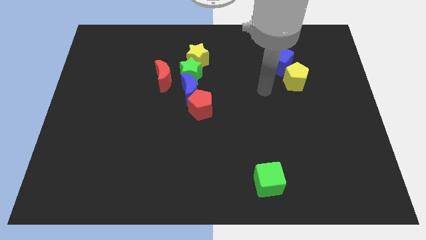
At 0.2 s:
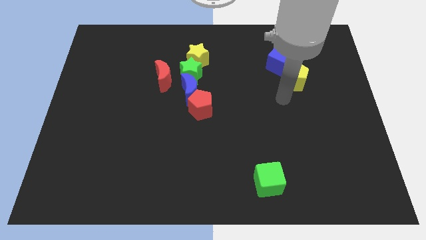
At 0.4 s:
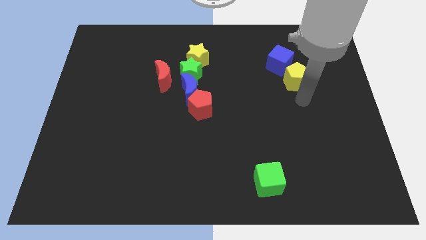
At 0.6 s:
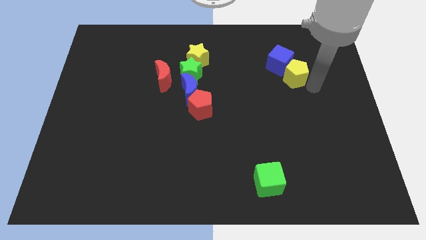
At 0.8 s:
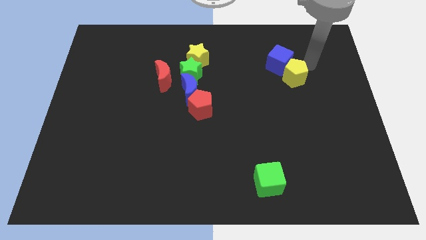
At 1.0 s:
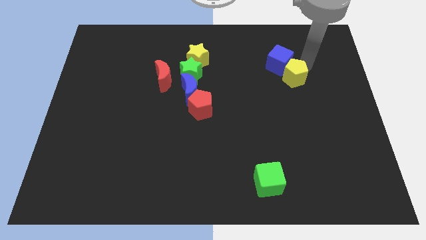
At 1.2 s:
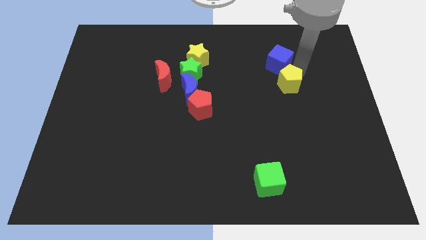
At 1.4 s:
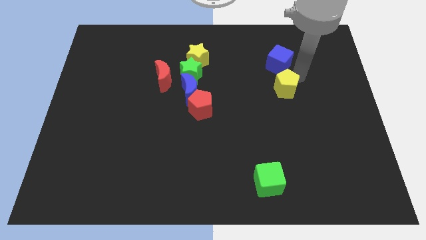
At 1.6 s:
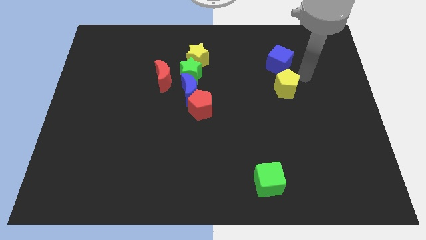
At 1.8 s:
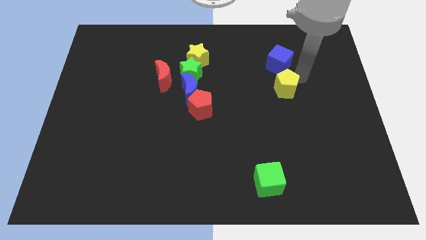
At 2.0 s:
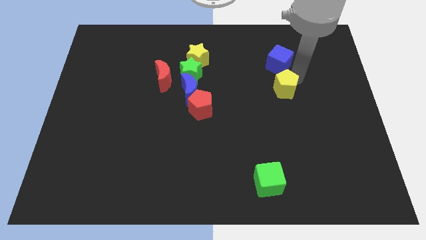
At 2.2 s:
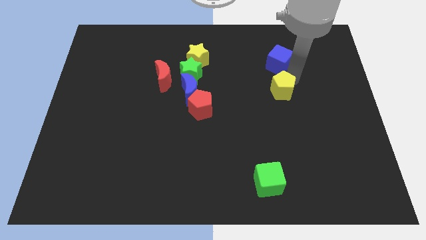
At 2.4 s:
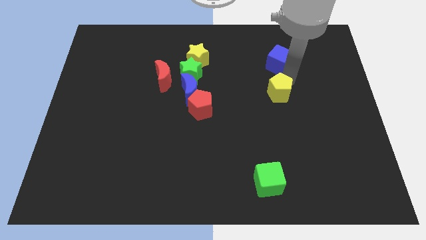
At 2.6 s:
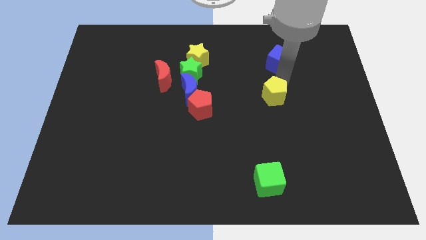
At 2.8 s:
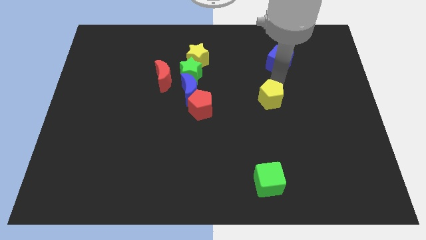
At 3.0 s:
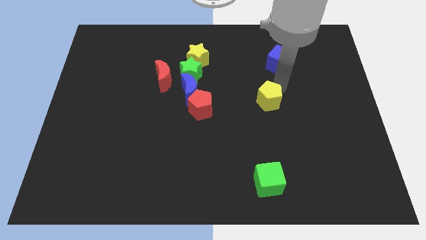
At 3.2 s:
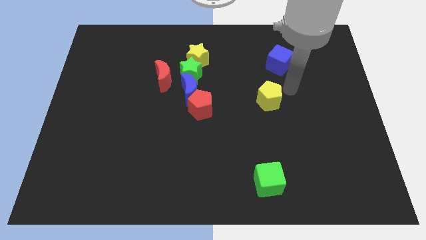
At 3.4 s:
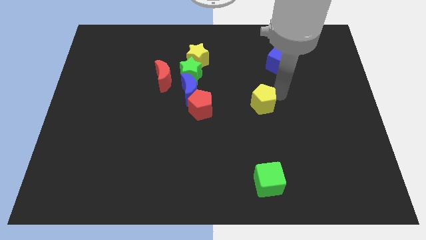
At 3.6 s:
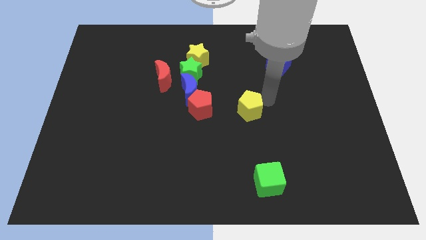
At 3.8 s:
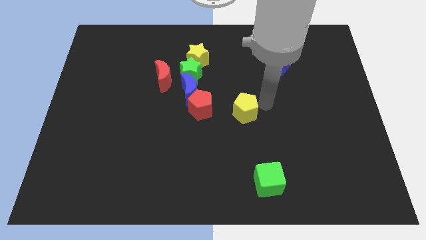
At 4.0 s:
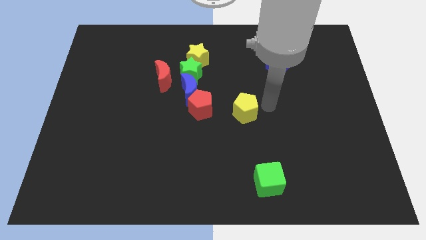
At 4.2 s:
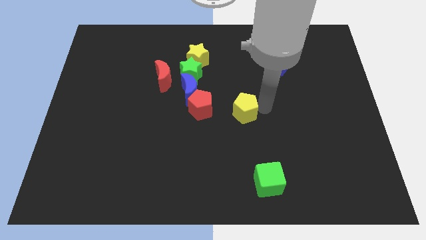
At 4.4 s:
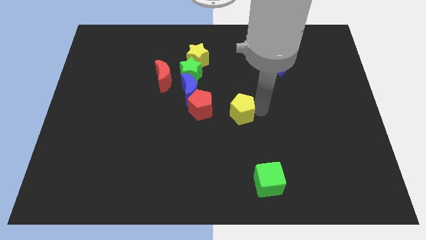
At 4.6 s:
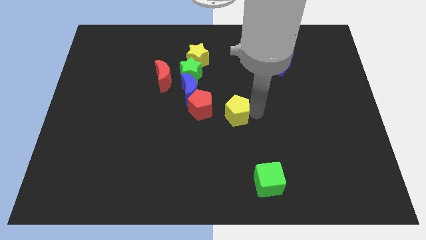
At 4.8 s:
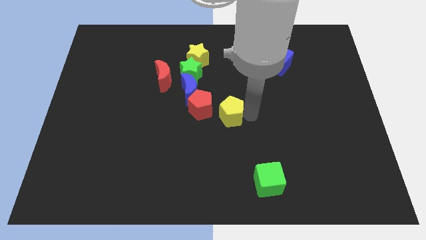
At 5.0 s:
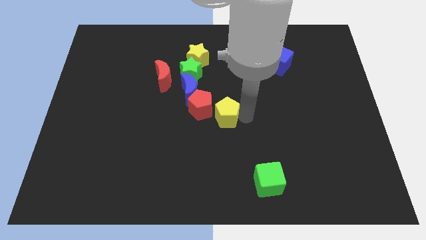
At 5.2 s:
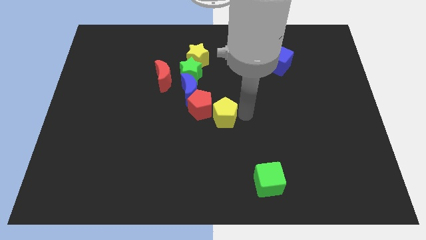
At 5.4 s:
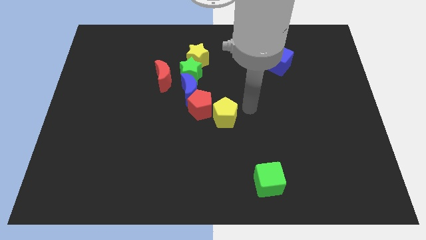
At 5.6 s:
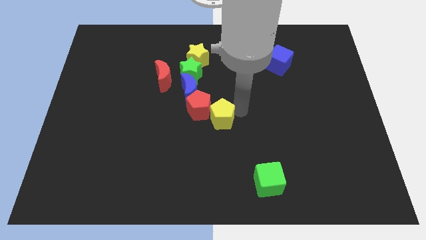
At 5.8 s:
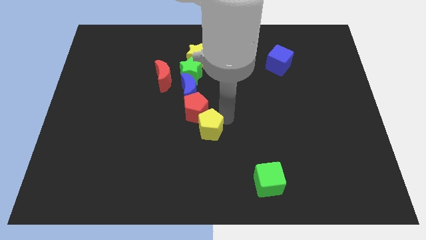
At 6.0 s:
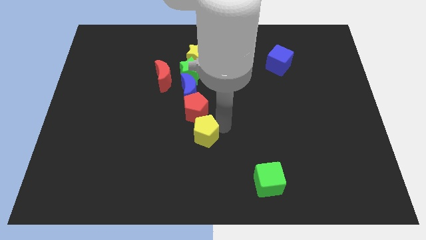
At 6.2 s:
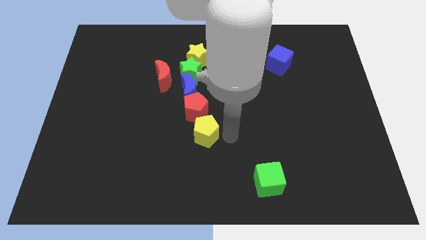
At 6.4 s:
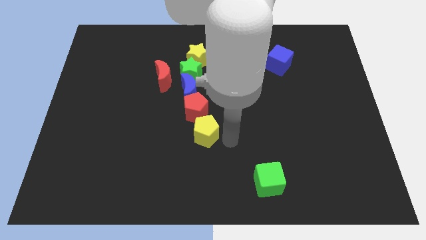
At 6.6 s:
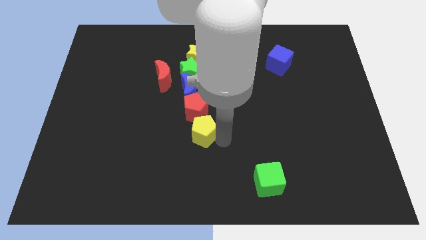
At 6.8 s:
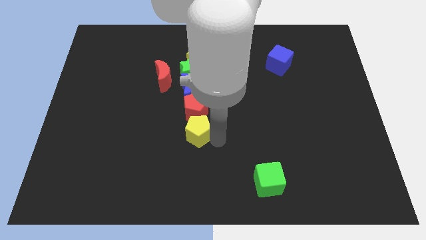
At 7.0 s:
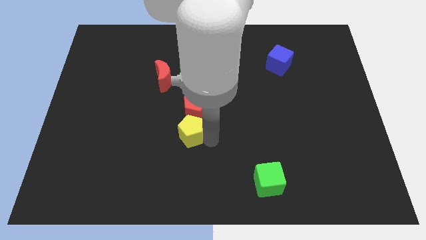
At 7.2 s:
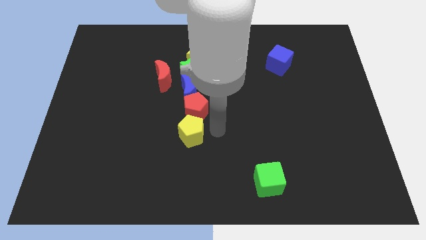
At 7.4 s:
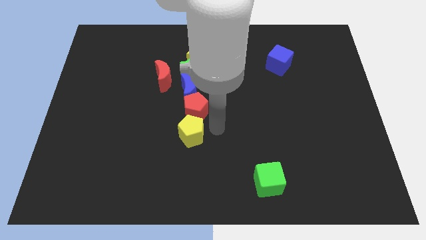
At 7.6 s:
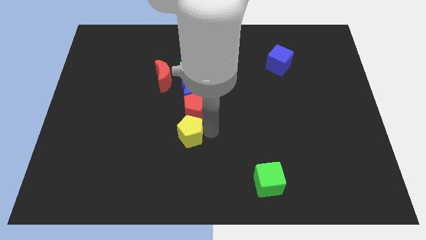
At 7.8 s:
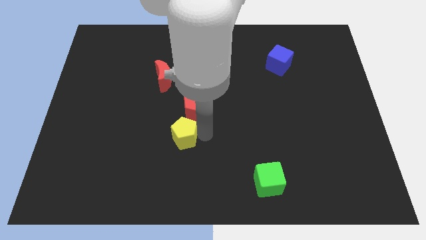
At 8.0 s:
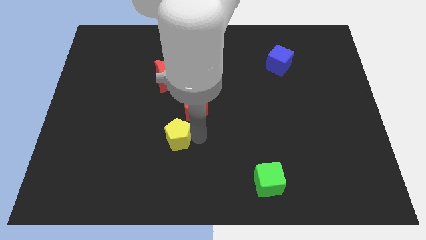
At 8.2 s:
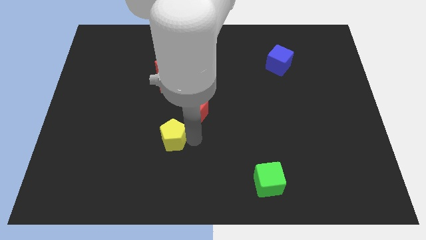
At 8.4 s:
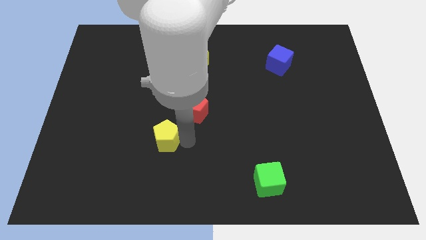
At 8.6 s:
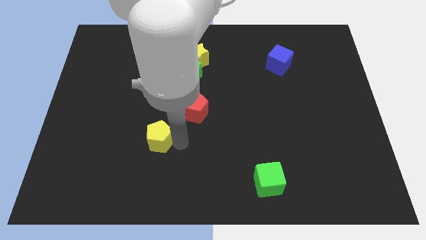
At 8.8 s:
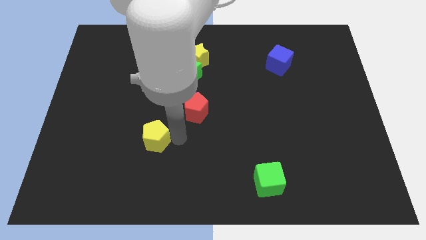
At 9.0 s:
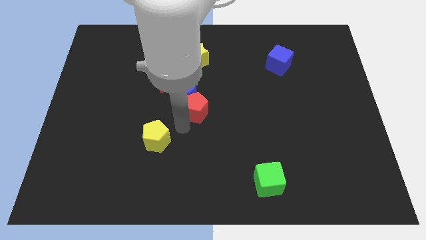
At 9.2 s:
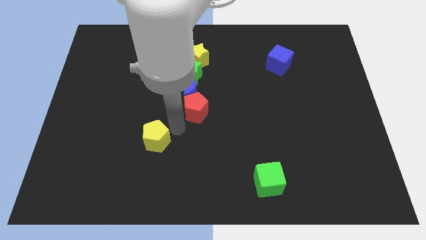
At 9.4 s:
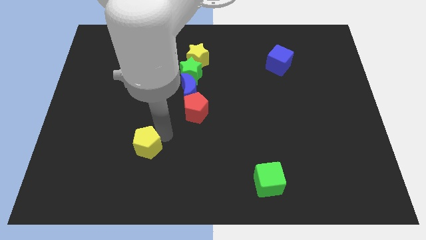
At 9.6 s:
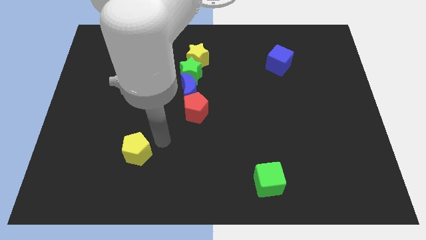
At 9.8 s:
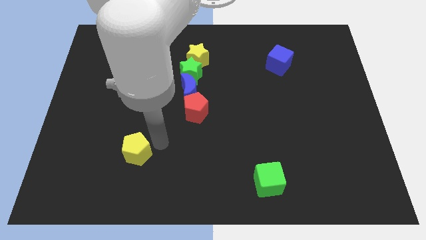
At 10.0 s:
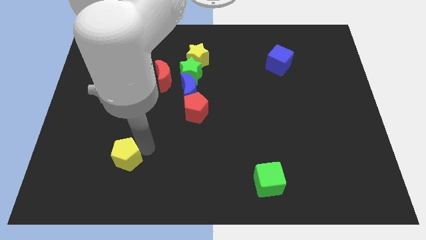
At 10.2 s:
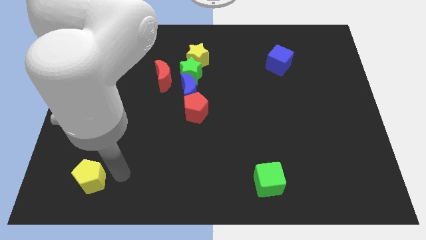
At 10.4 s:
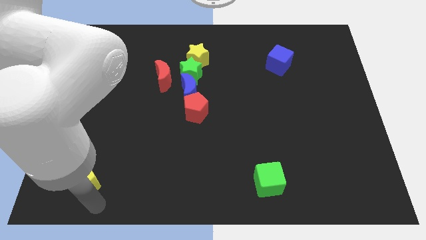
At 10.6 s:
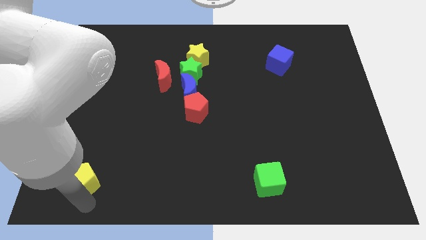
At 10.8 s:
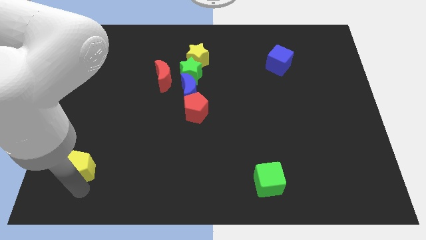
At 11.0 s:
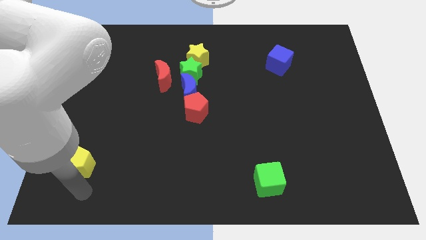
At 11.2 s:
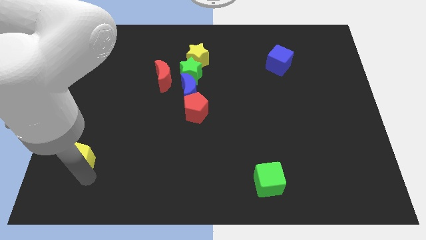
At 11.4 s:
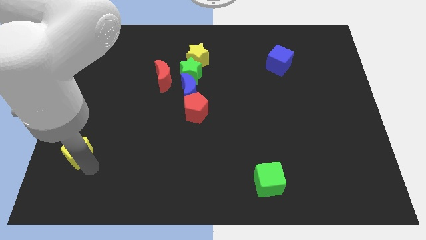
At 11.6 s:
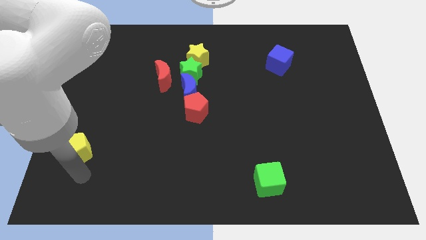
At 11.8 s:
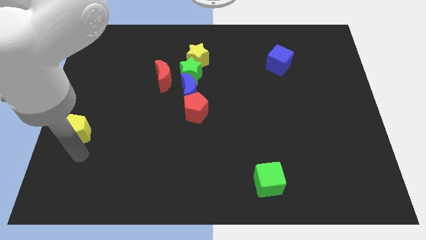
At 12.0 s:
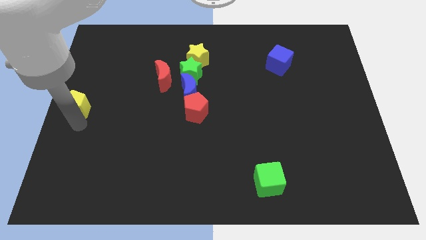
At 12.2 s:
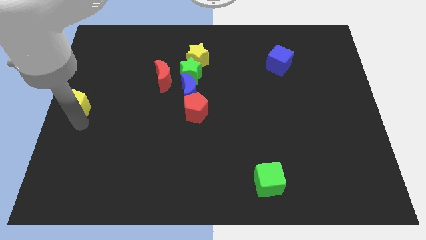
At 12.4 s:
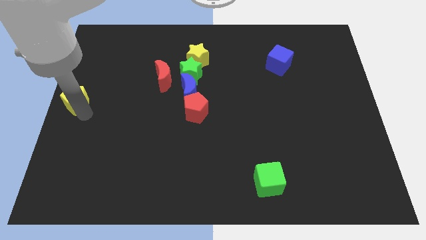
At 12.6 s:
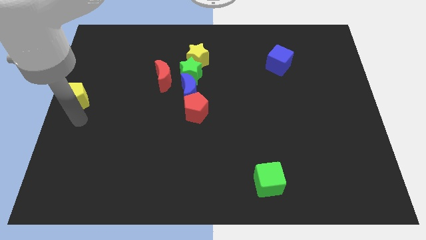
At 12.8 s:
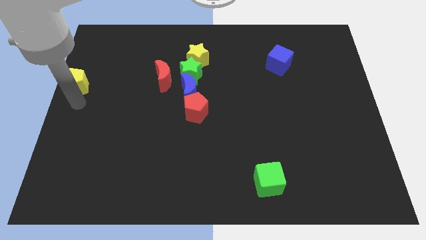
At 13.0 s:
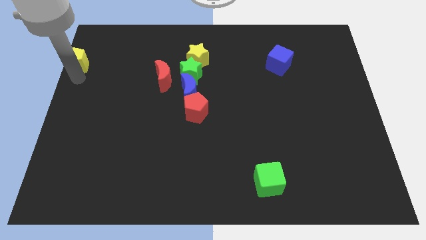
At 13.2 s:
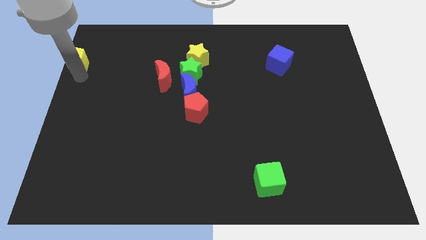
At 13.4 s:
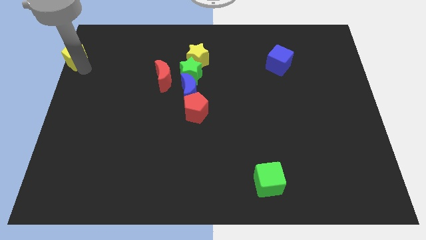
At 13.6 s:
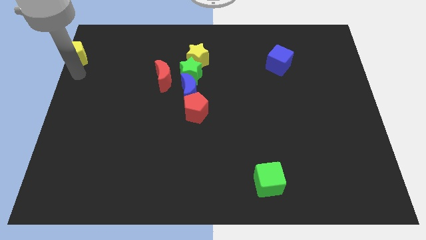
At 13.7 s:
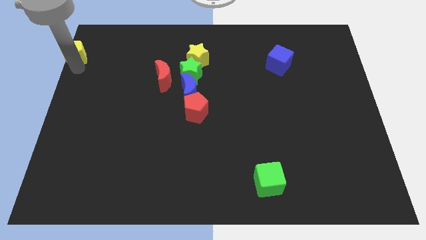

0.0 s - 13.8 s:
move the yellow pentagon to the top left
